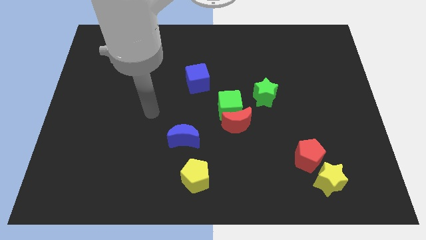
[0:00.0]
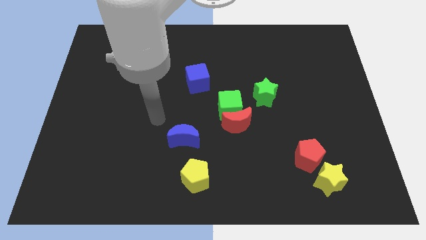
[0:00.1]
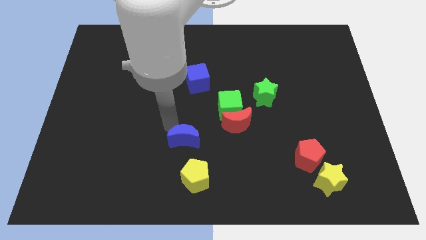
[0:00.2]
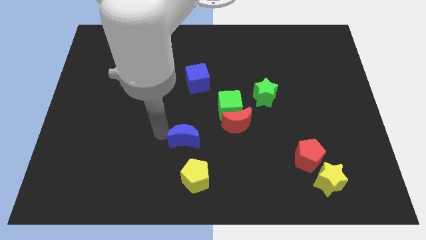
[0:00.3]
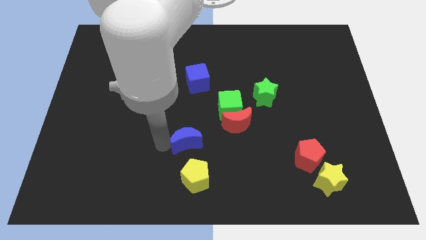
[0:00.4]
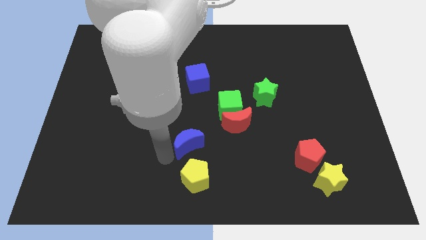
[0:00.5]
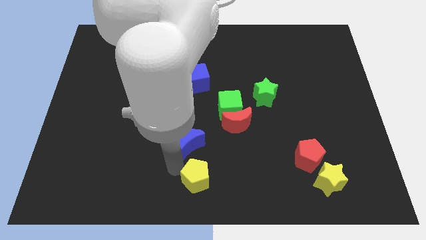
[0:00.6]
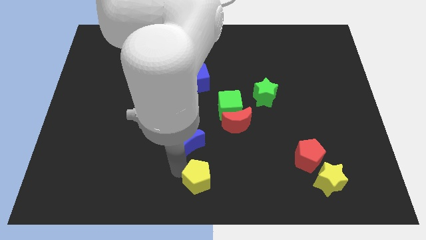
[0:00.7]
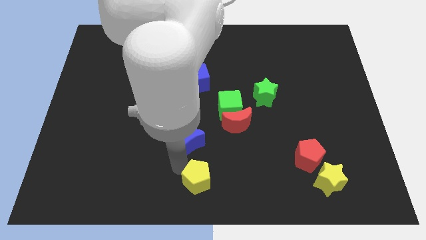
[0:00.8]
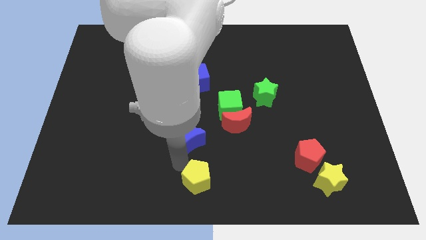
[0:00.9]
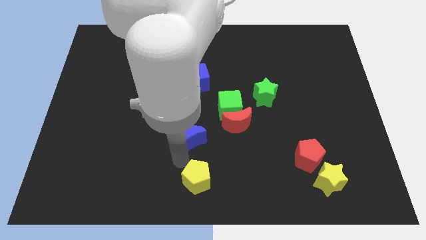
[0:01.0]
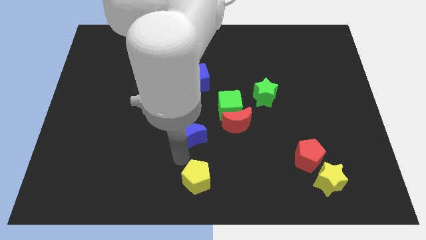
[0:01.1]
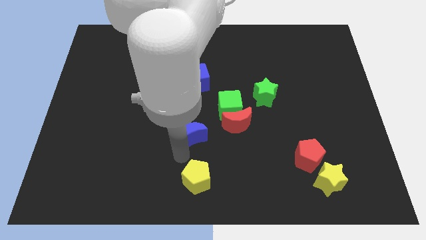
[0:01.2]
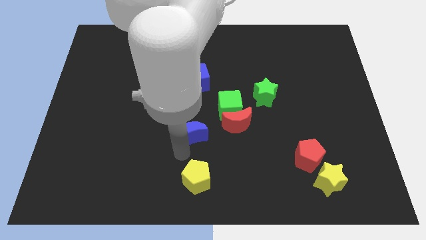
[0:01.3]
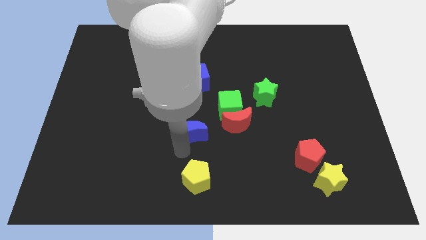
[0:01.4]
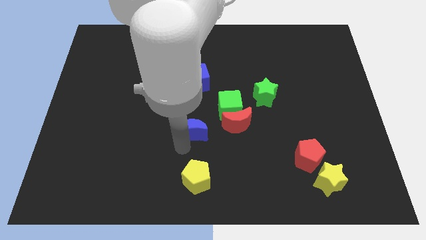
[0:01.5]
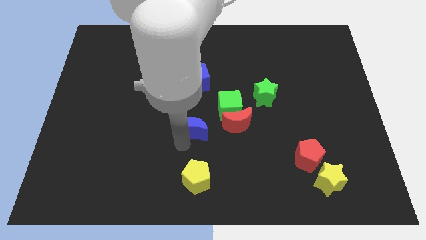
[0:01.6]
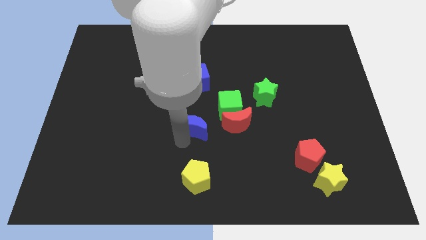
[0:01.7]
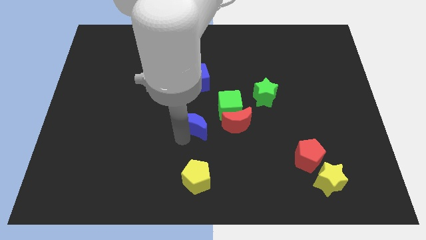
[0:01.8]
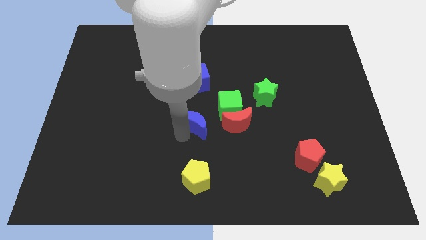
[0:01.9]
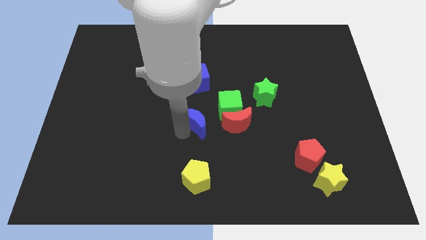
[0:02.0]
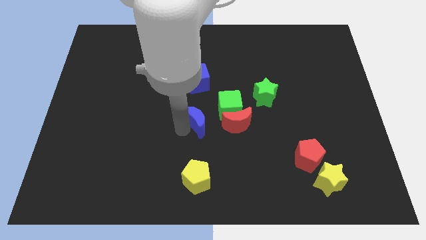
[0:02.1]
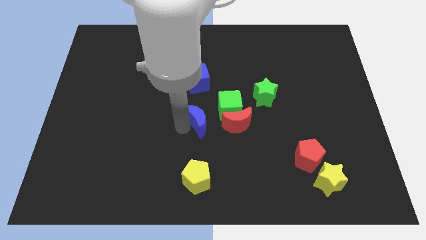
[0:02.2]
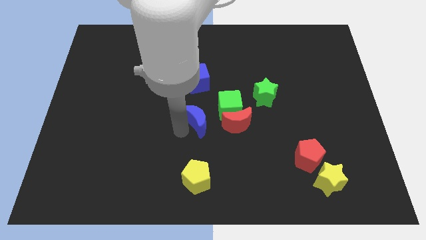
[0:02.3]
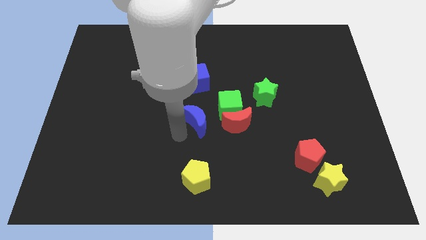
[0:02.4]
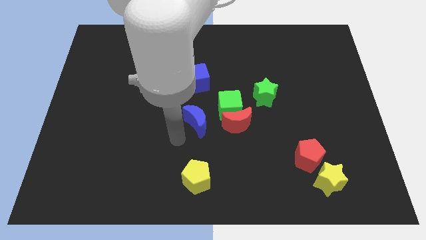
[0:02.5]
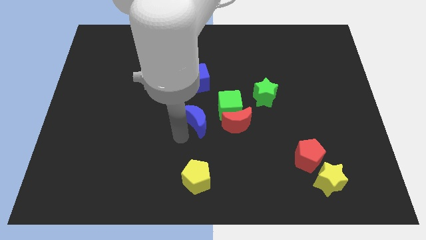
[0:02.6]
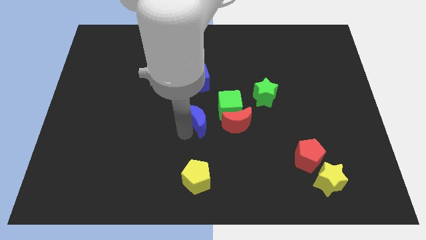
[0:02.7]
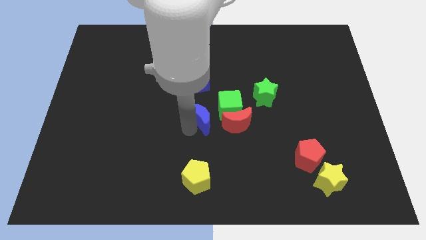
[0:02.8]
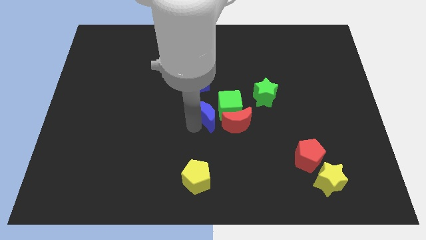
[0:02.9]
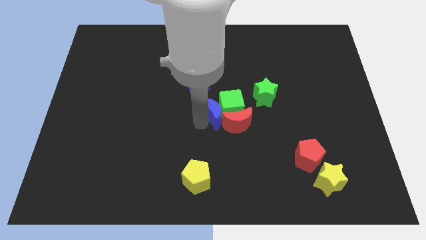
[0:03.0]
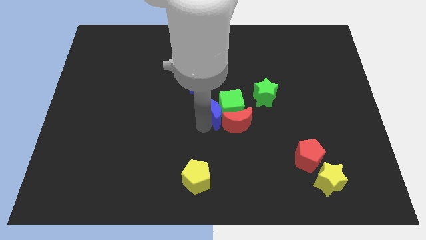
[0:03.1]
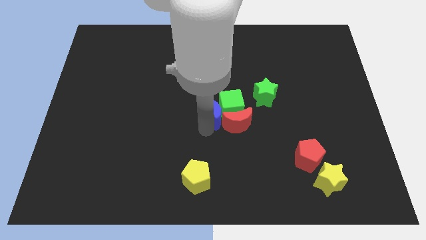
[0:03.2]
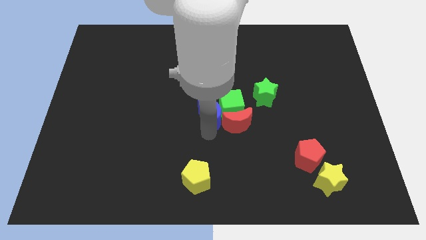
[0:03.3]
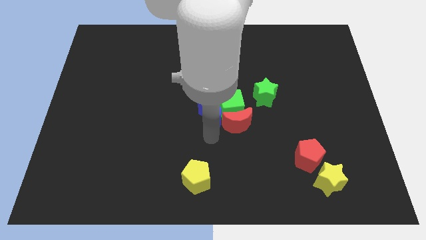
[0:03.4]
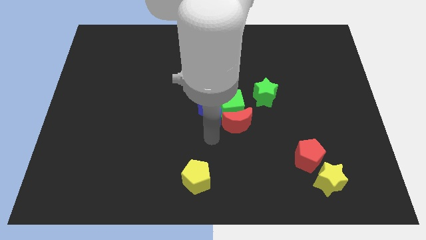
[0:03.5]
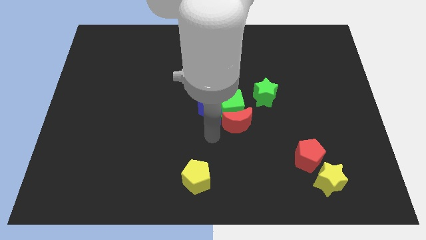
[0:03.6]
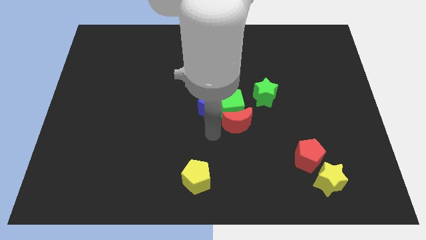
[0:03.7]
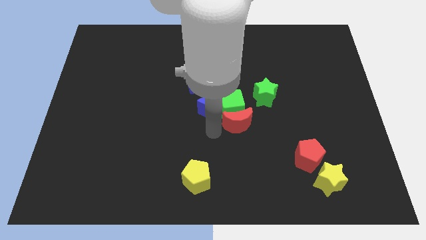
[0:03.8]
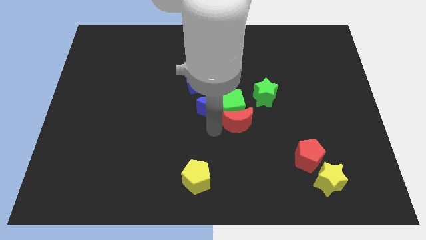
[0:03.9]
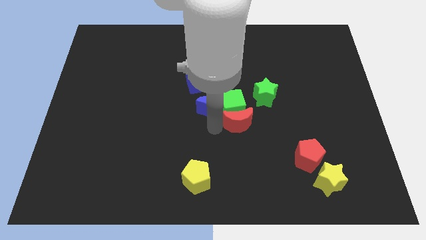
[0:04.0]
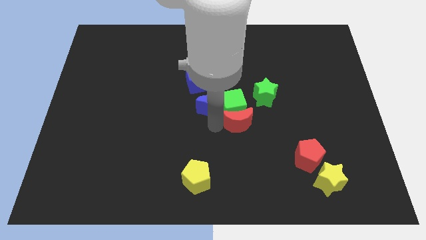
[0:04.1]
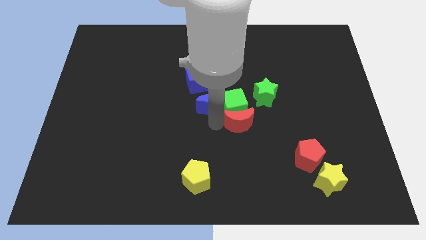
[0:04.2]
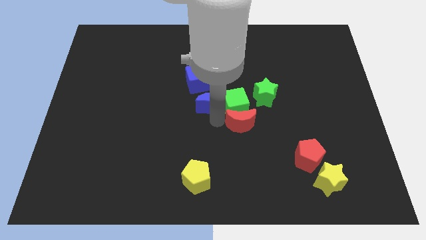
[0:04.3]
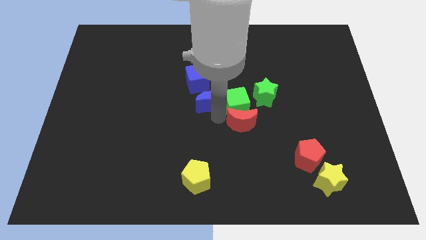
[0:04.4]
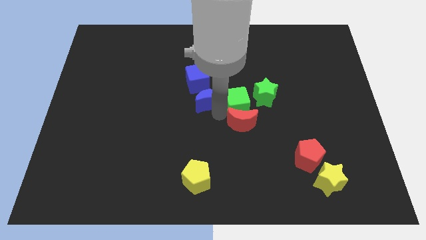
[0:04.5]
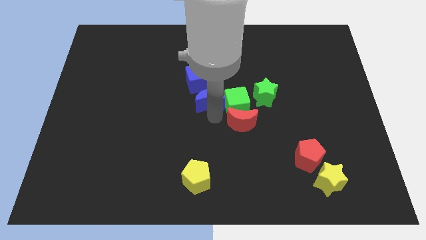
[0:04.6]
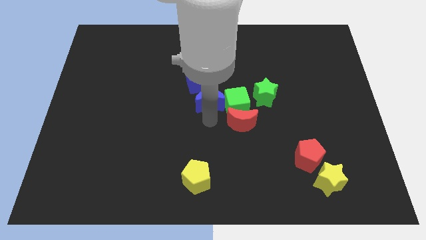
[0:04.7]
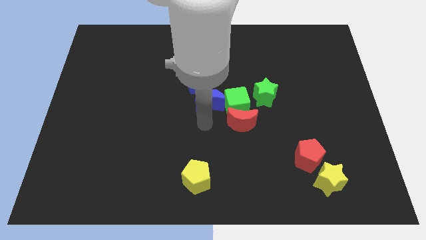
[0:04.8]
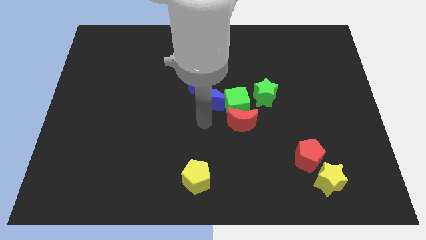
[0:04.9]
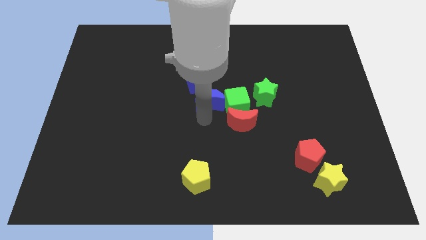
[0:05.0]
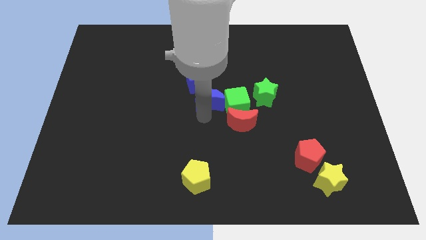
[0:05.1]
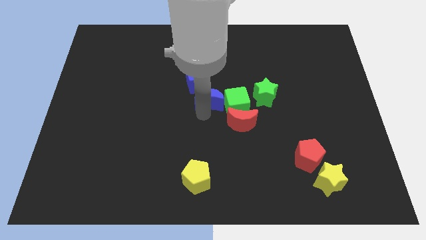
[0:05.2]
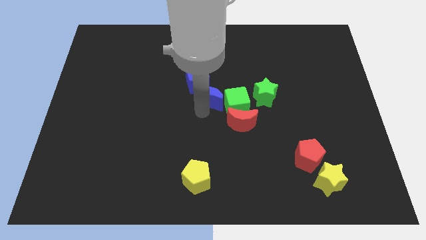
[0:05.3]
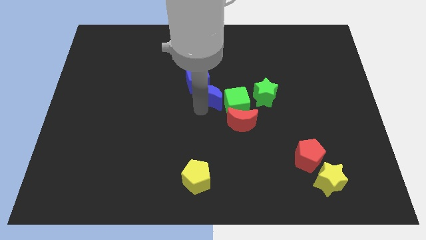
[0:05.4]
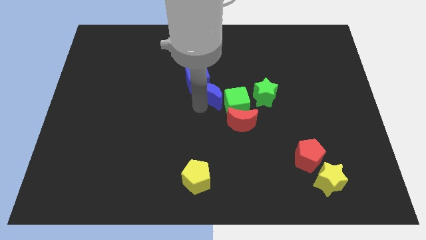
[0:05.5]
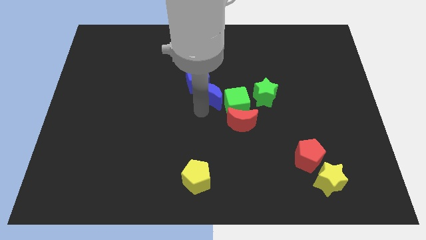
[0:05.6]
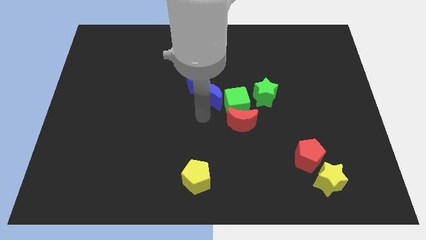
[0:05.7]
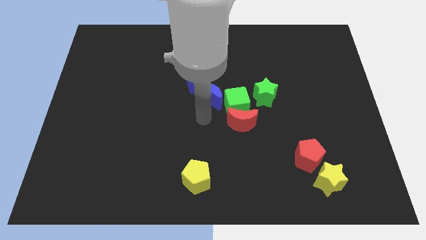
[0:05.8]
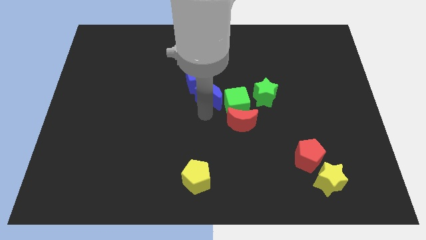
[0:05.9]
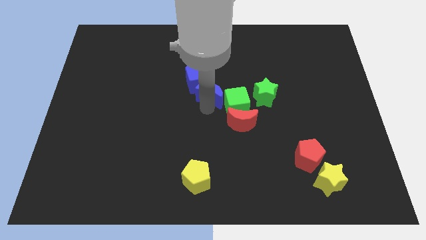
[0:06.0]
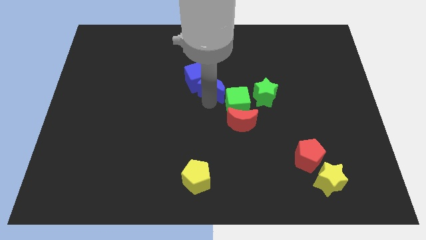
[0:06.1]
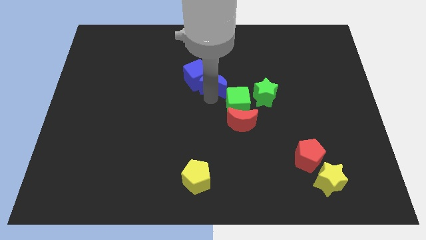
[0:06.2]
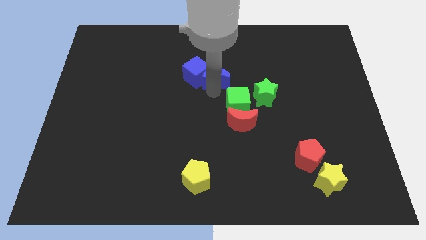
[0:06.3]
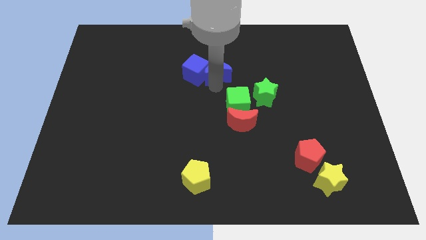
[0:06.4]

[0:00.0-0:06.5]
push the blue moon to the top right side of the blue cube
